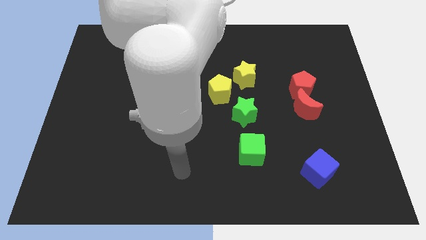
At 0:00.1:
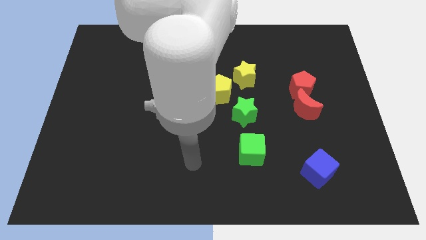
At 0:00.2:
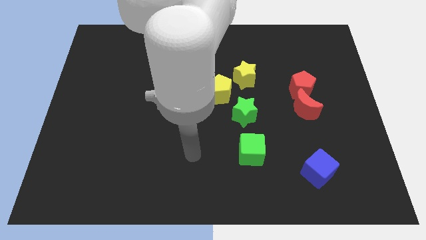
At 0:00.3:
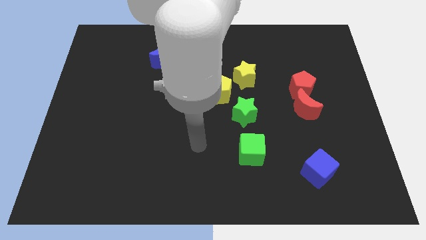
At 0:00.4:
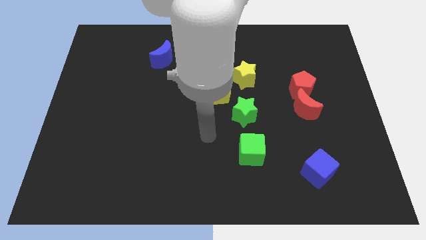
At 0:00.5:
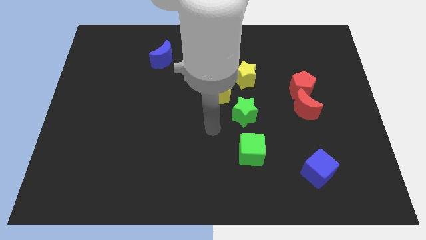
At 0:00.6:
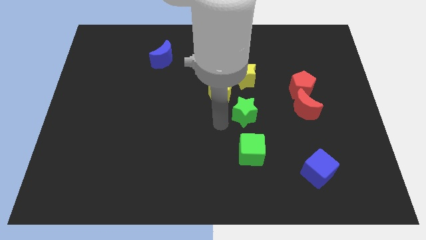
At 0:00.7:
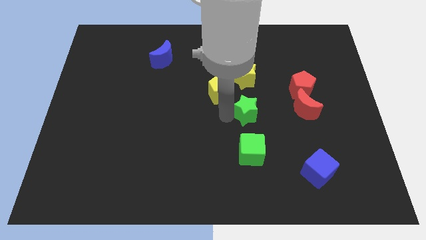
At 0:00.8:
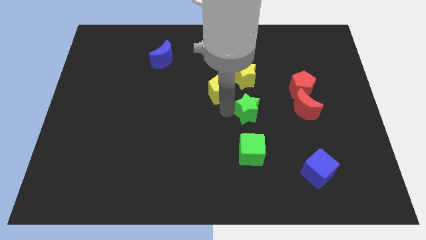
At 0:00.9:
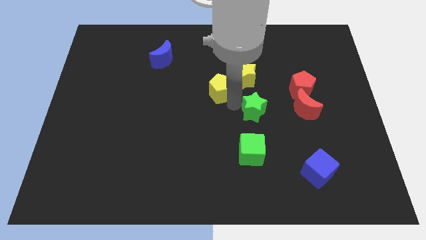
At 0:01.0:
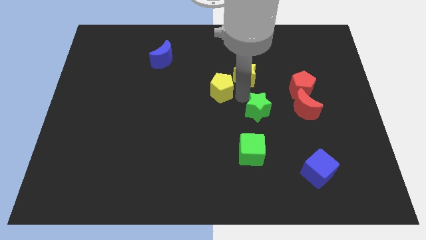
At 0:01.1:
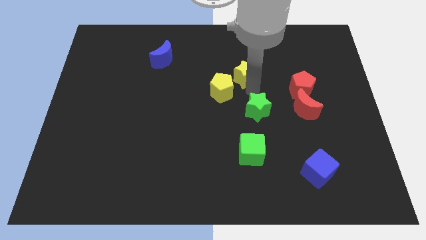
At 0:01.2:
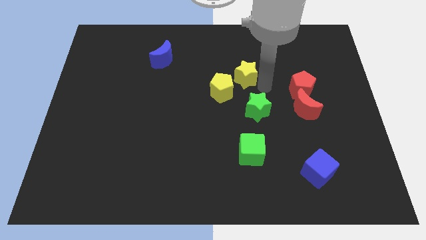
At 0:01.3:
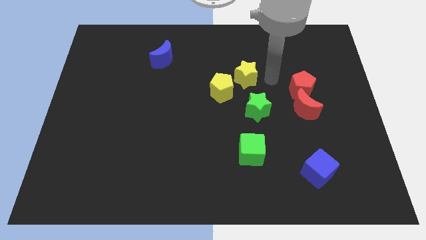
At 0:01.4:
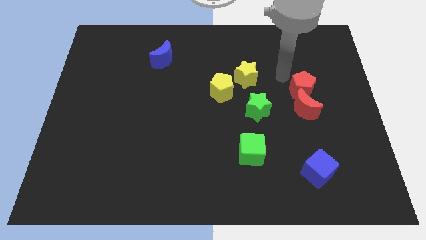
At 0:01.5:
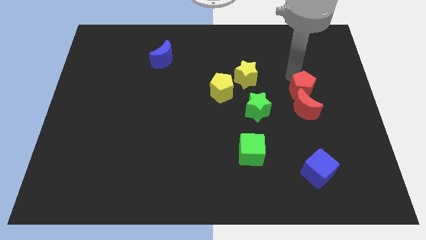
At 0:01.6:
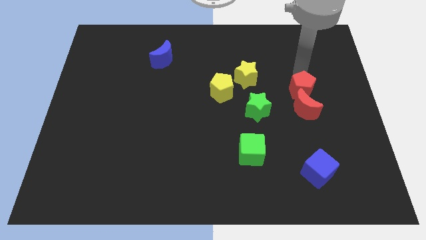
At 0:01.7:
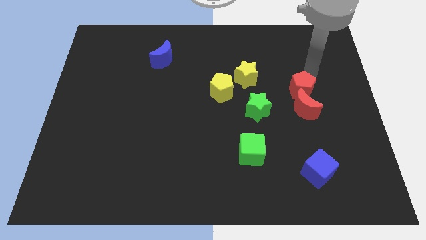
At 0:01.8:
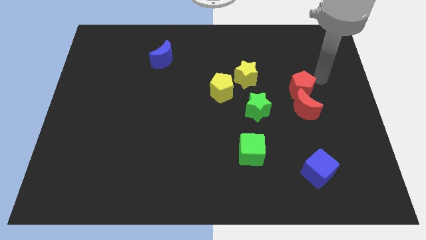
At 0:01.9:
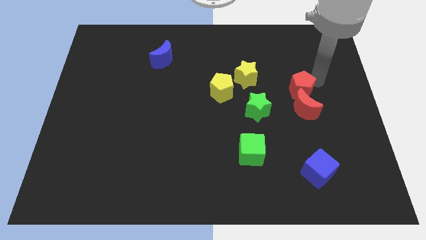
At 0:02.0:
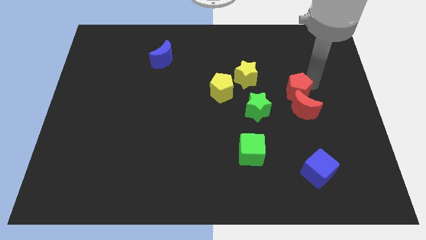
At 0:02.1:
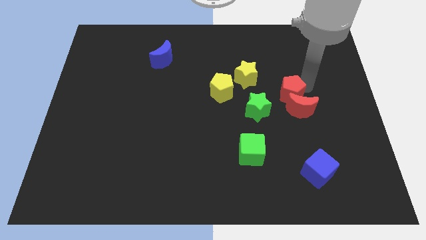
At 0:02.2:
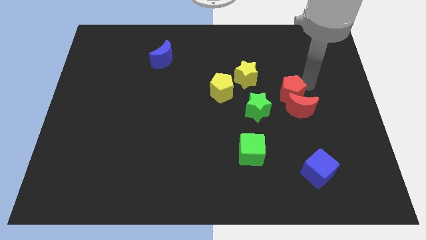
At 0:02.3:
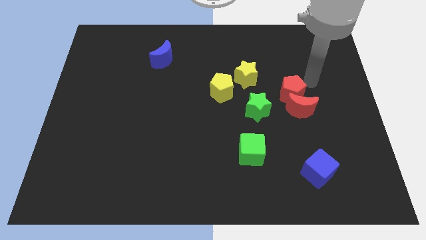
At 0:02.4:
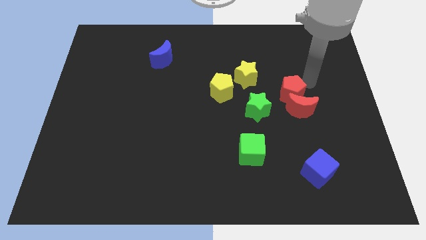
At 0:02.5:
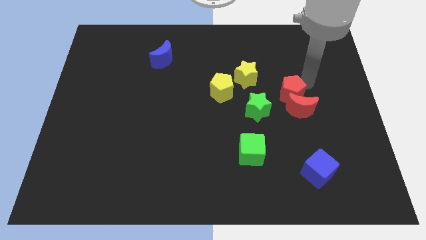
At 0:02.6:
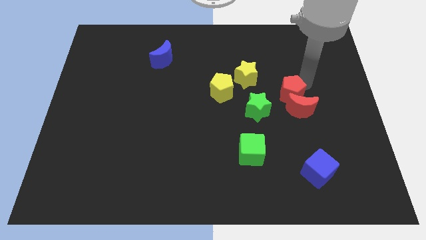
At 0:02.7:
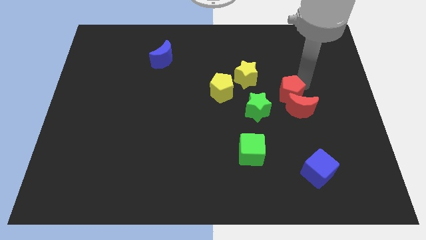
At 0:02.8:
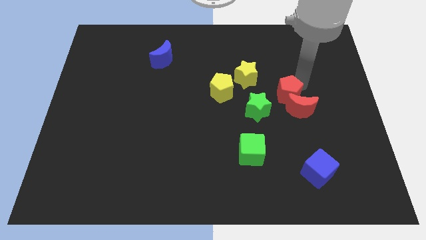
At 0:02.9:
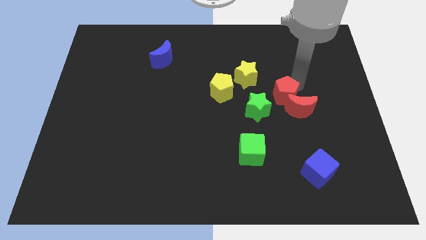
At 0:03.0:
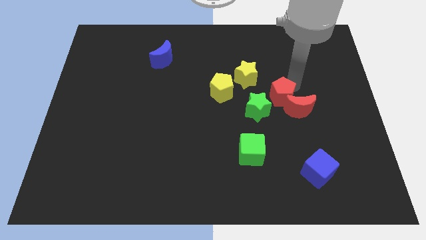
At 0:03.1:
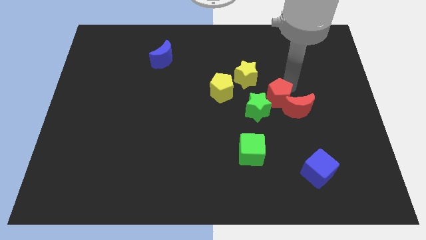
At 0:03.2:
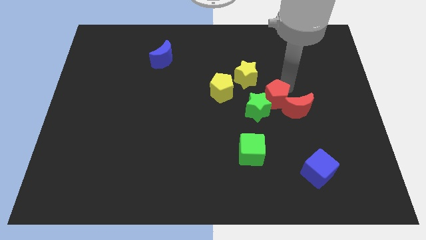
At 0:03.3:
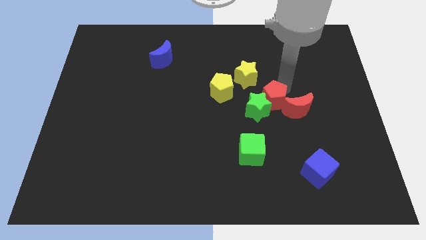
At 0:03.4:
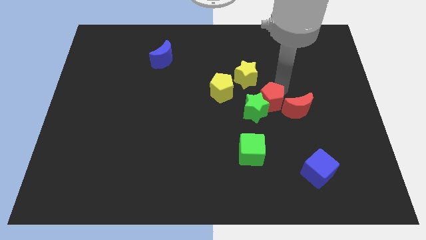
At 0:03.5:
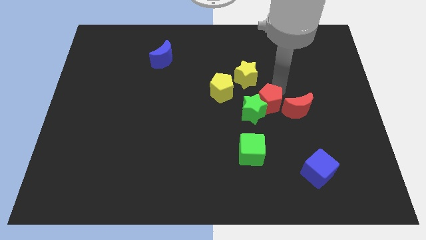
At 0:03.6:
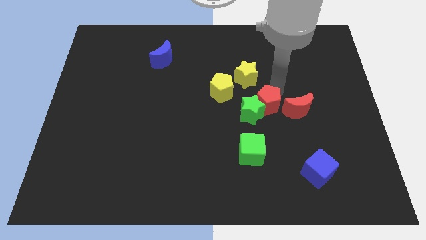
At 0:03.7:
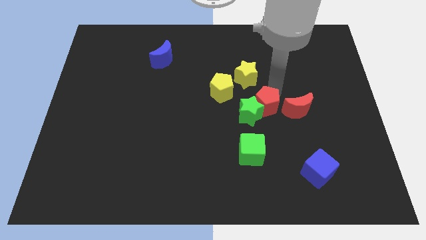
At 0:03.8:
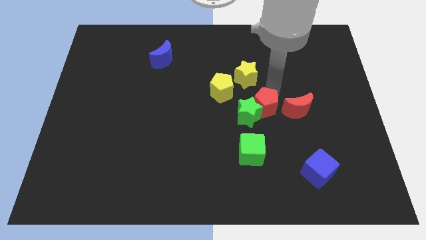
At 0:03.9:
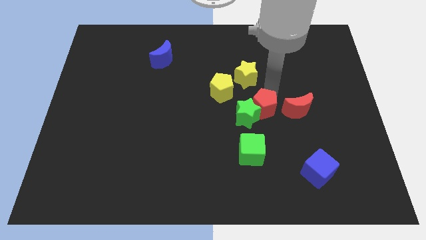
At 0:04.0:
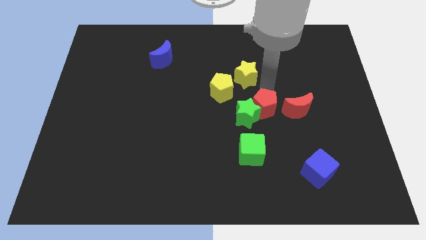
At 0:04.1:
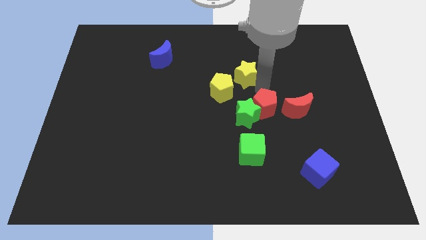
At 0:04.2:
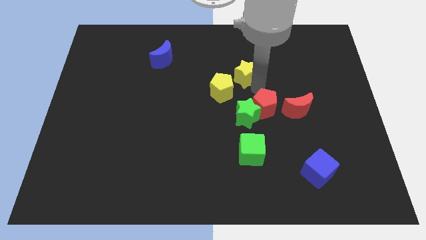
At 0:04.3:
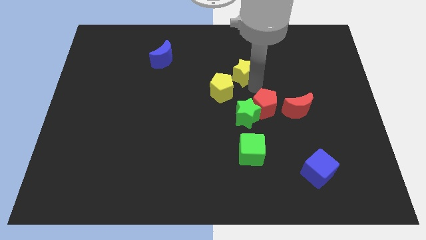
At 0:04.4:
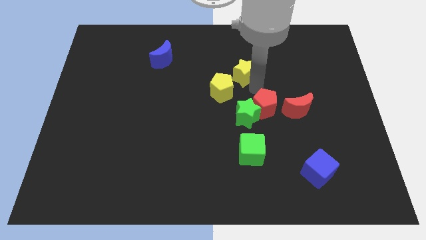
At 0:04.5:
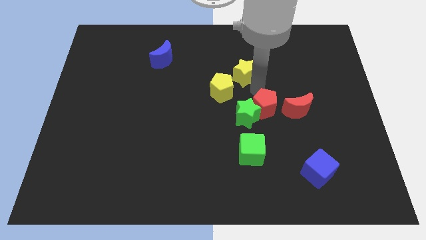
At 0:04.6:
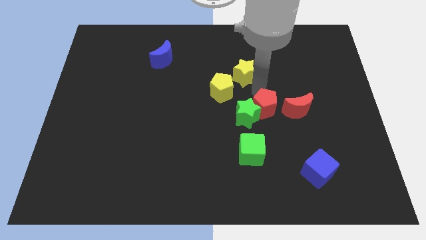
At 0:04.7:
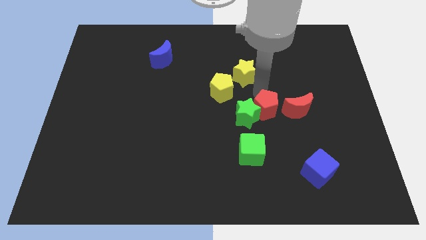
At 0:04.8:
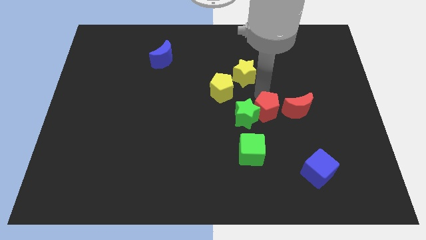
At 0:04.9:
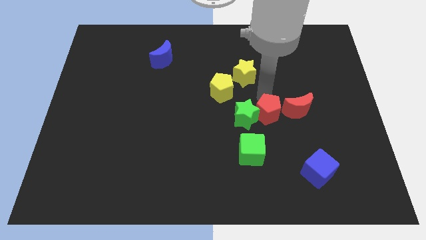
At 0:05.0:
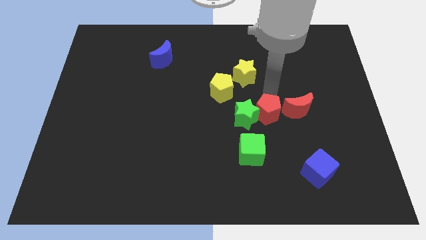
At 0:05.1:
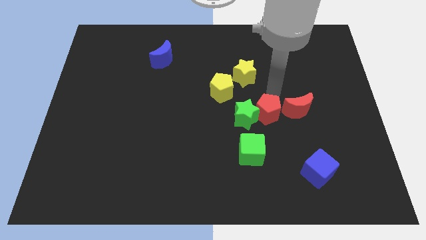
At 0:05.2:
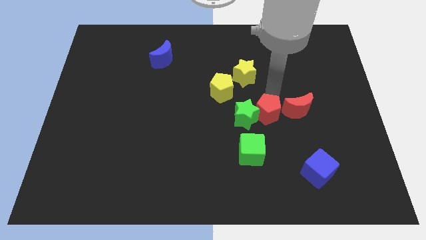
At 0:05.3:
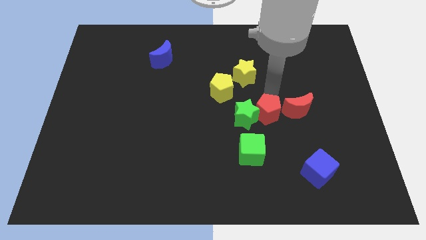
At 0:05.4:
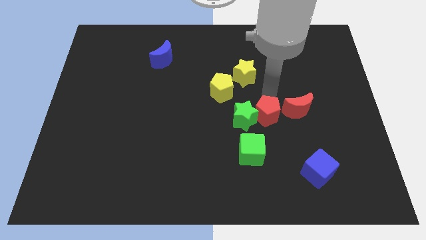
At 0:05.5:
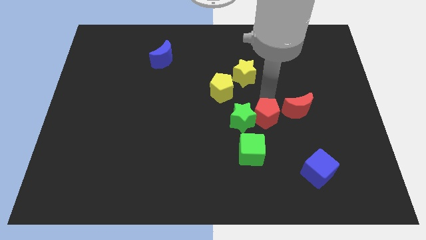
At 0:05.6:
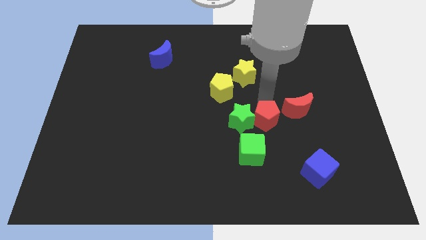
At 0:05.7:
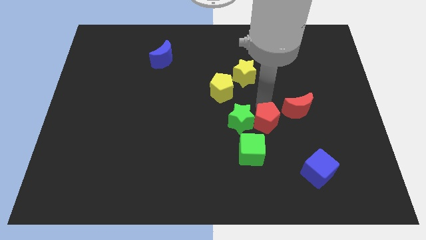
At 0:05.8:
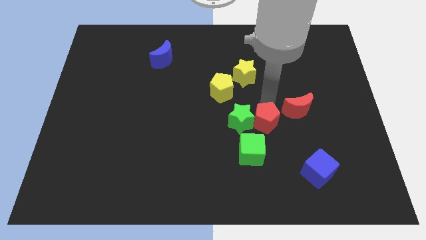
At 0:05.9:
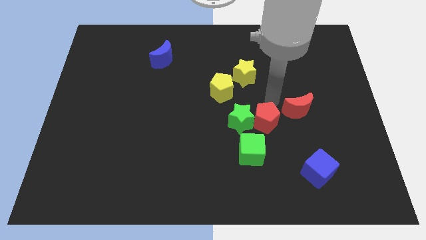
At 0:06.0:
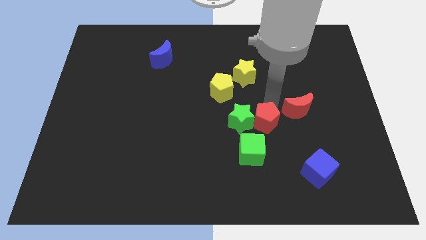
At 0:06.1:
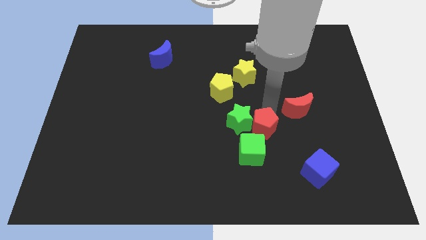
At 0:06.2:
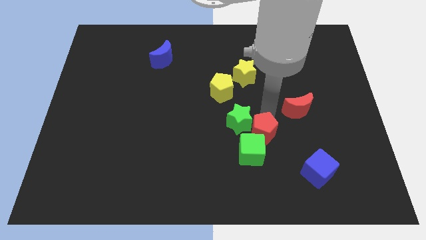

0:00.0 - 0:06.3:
move the red pentagon next to the green cube

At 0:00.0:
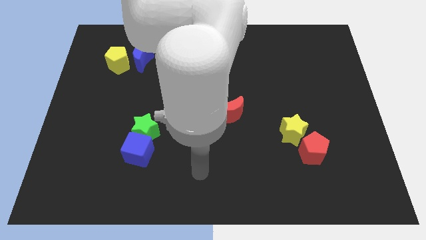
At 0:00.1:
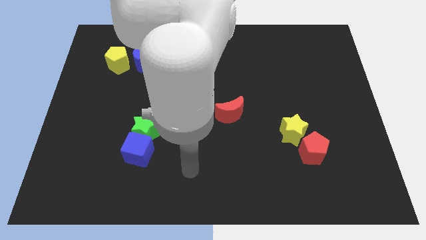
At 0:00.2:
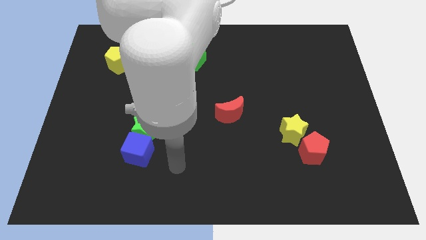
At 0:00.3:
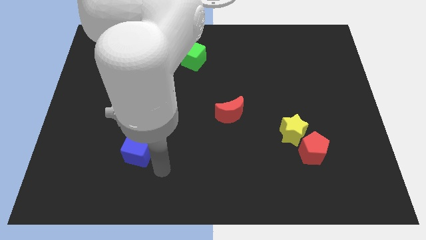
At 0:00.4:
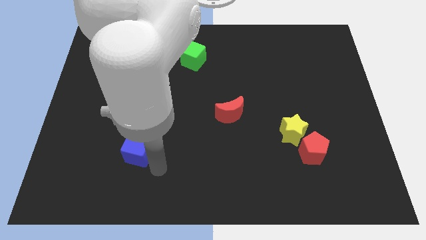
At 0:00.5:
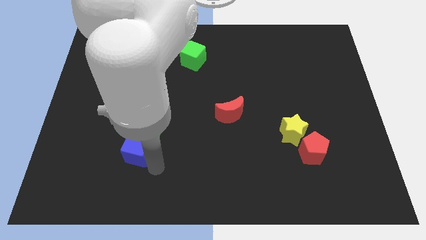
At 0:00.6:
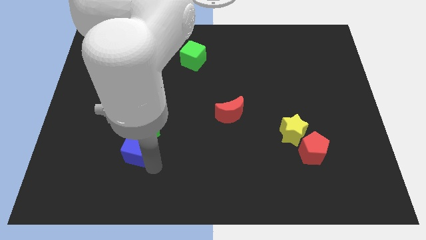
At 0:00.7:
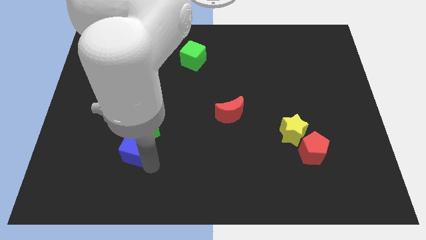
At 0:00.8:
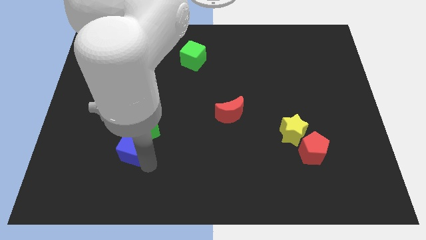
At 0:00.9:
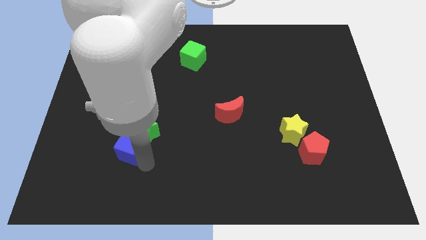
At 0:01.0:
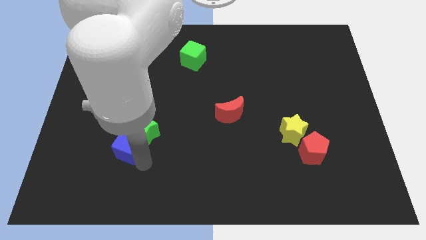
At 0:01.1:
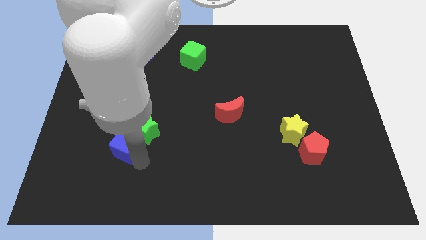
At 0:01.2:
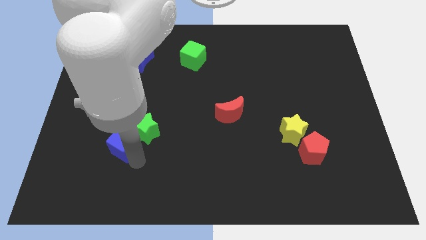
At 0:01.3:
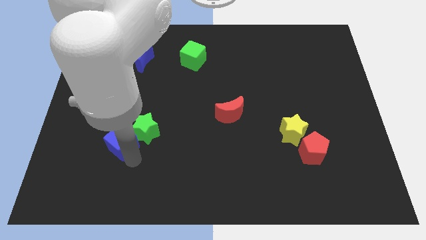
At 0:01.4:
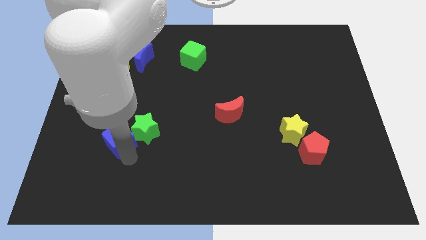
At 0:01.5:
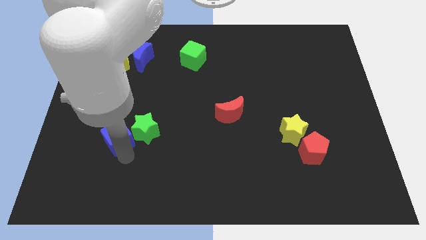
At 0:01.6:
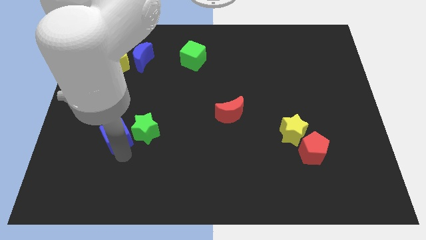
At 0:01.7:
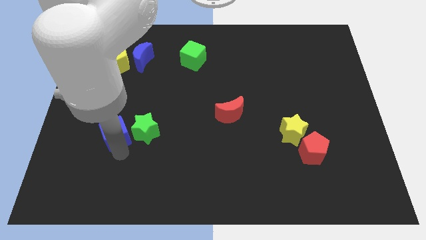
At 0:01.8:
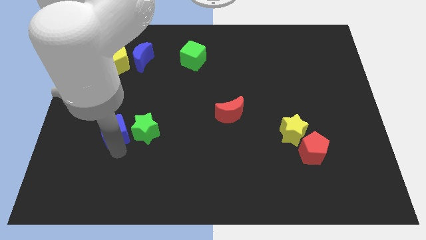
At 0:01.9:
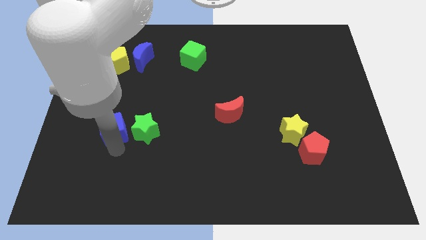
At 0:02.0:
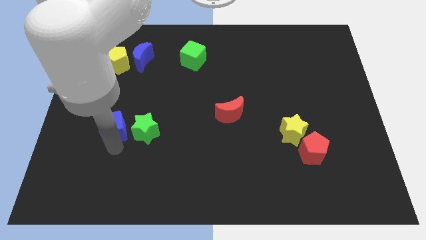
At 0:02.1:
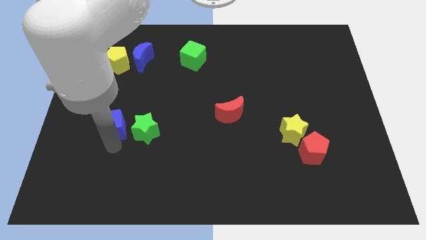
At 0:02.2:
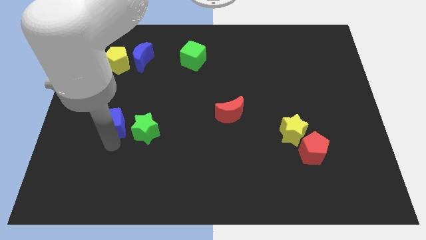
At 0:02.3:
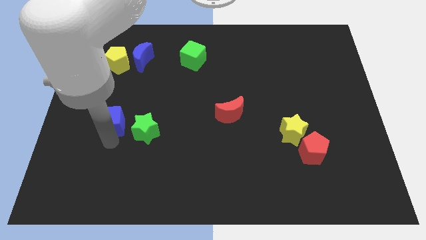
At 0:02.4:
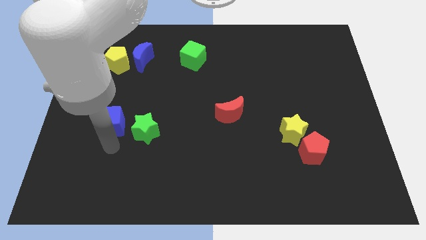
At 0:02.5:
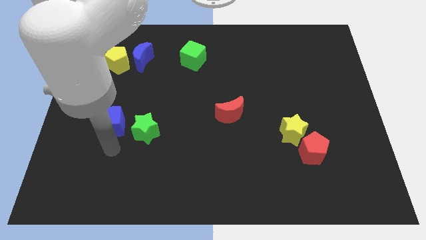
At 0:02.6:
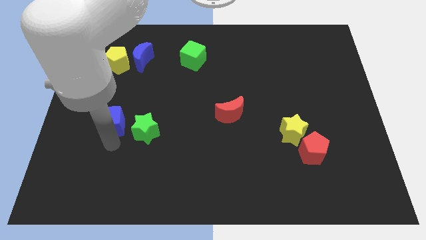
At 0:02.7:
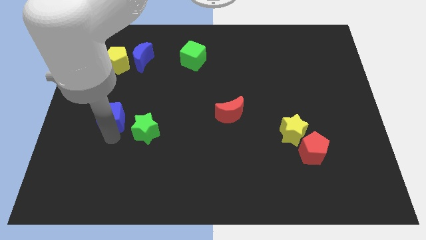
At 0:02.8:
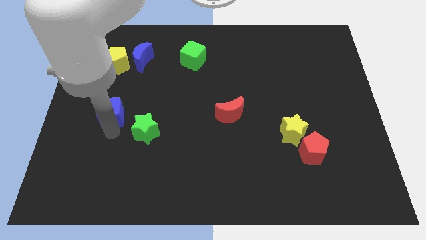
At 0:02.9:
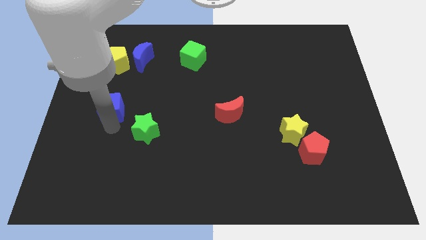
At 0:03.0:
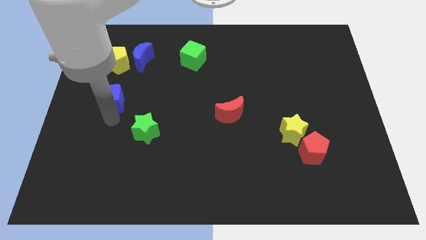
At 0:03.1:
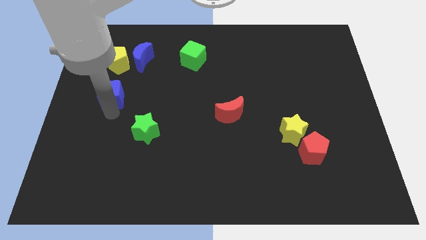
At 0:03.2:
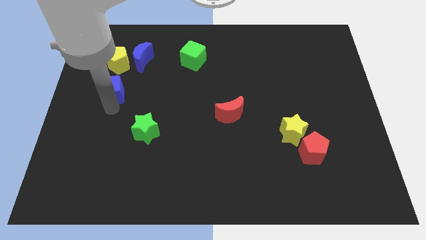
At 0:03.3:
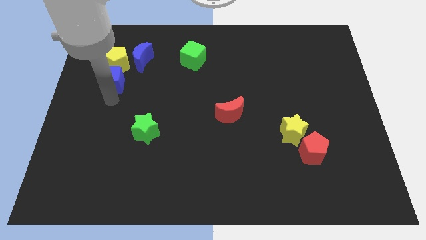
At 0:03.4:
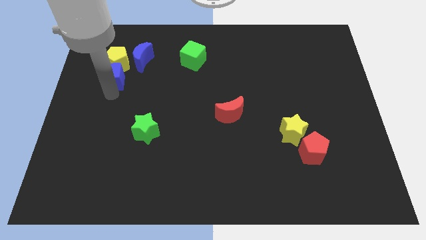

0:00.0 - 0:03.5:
push the blue cube to the yellow pentagon
